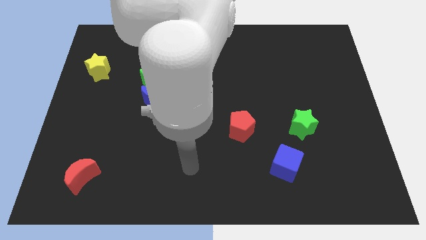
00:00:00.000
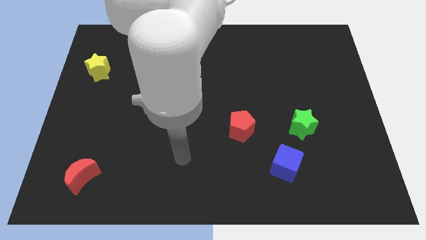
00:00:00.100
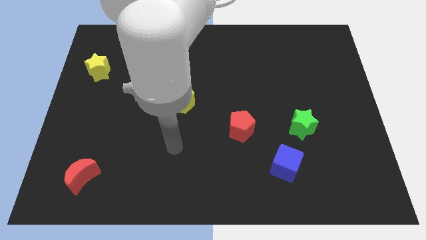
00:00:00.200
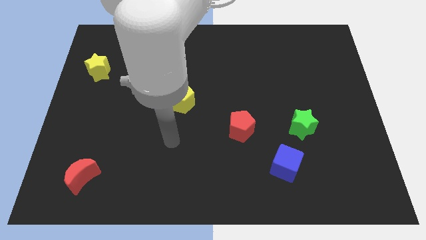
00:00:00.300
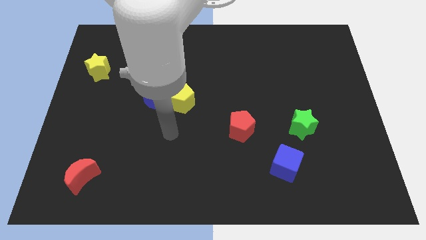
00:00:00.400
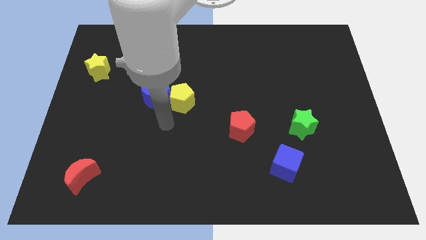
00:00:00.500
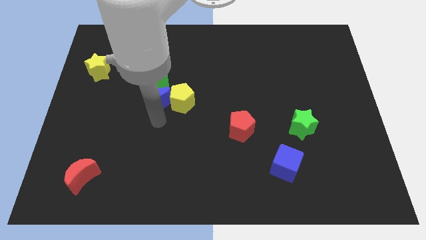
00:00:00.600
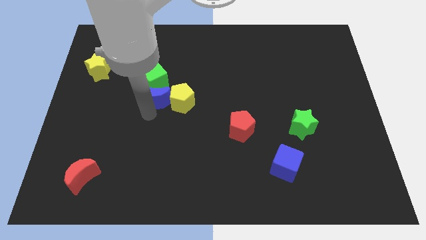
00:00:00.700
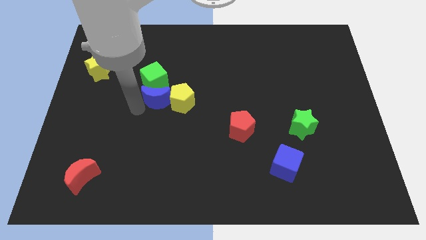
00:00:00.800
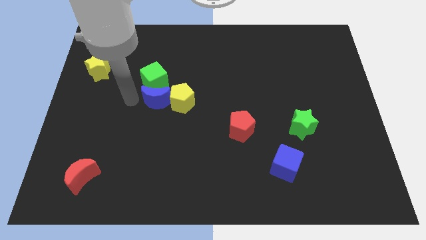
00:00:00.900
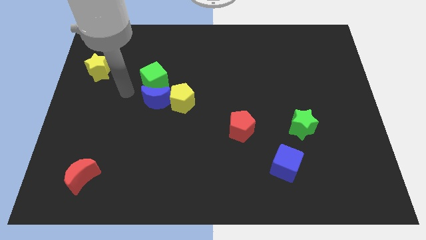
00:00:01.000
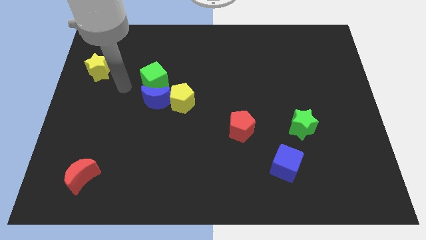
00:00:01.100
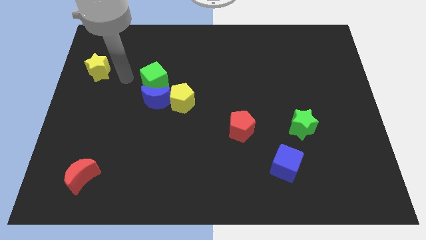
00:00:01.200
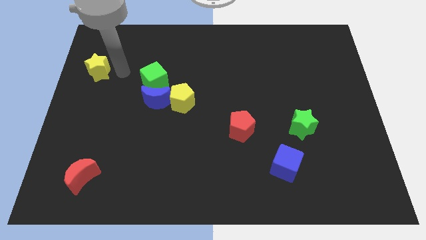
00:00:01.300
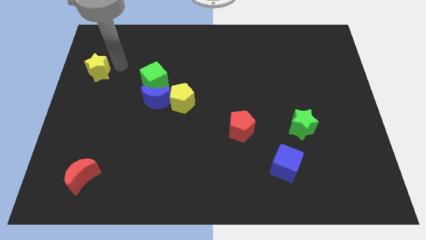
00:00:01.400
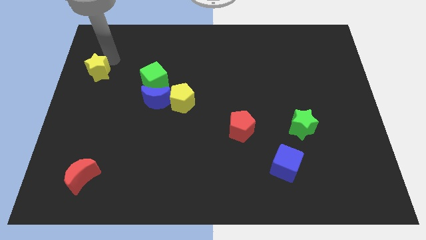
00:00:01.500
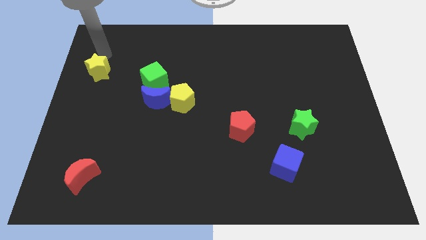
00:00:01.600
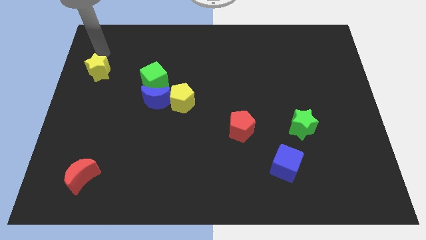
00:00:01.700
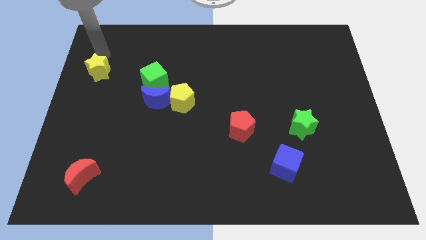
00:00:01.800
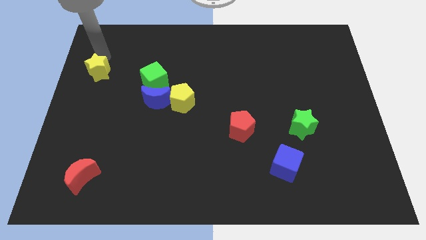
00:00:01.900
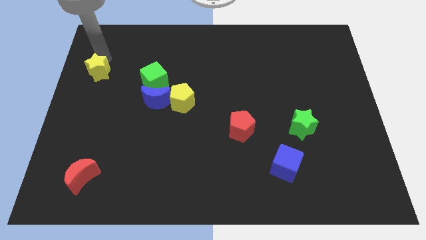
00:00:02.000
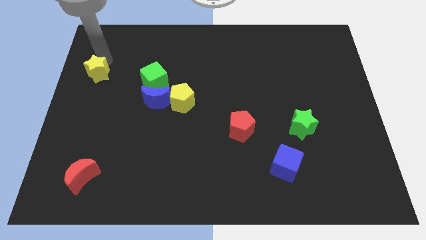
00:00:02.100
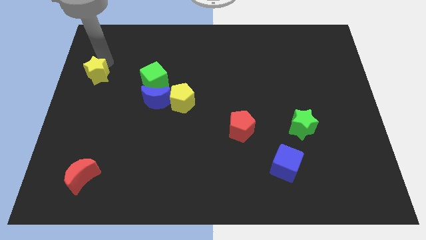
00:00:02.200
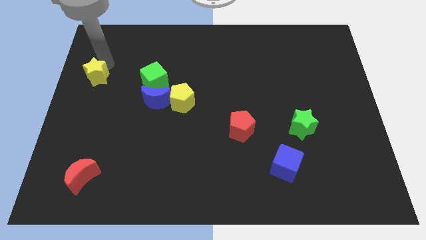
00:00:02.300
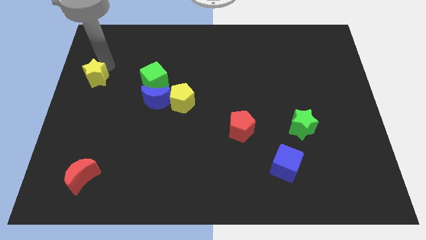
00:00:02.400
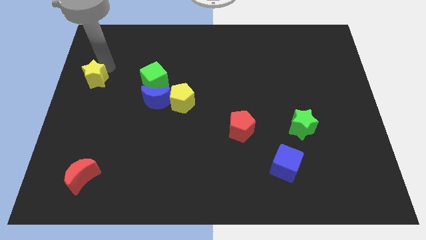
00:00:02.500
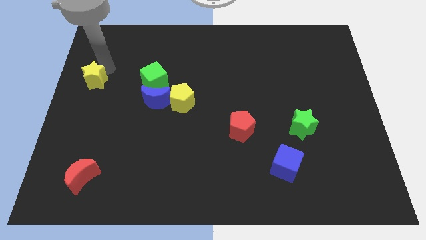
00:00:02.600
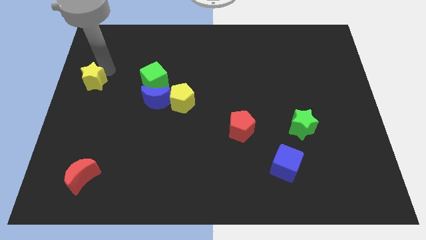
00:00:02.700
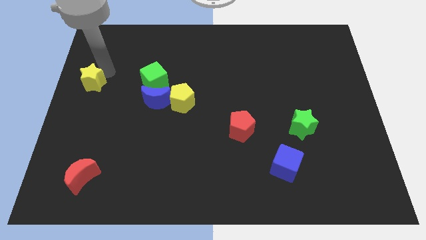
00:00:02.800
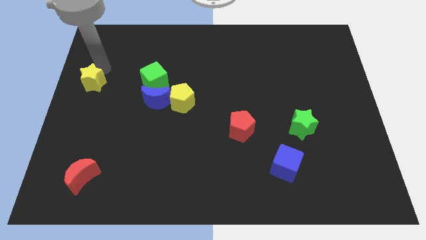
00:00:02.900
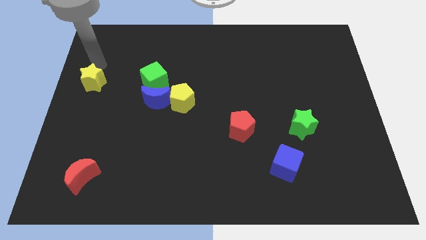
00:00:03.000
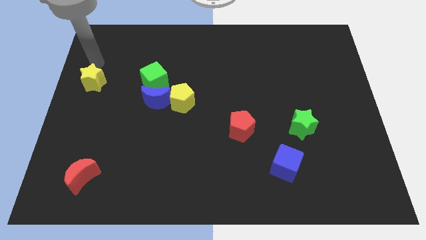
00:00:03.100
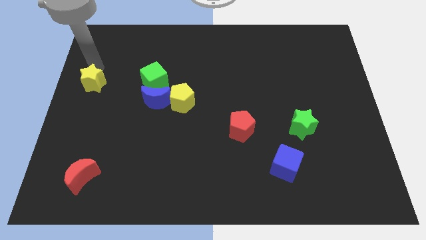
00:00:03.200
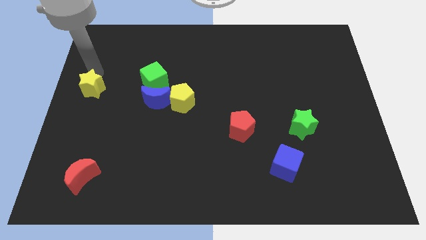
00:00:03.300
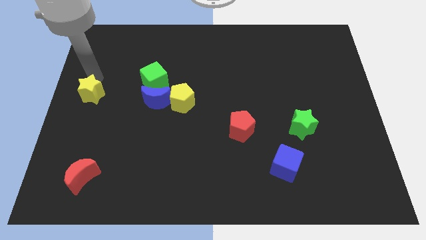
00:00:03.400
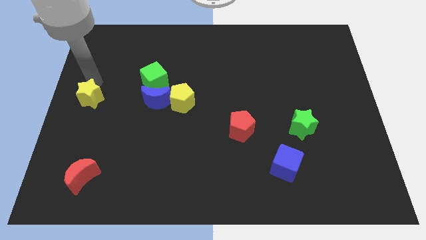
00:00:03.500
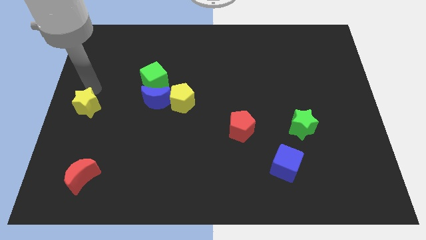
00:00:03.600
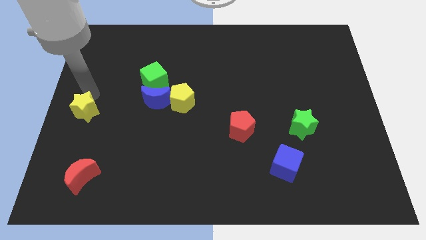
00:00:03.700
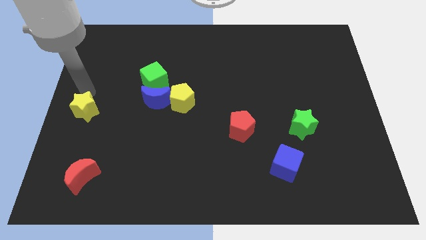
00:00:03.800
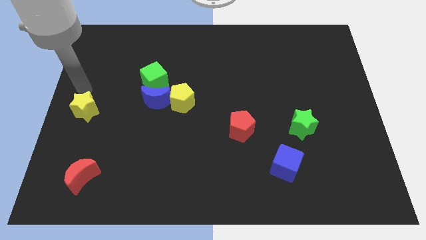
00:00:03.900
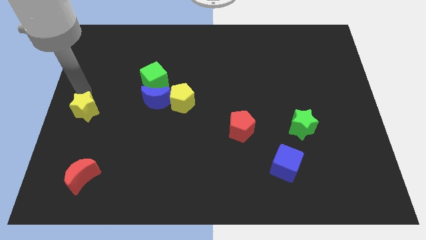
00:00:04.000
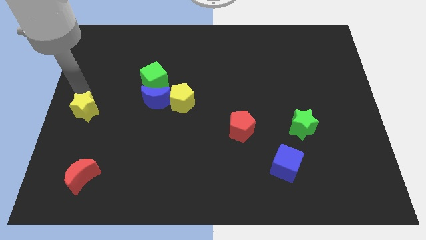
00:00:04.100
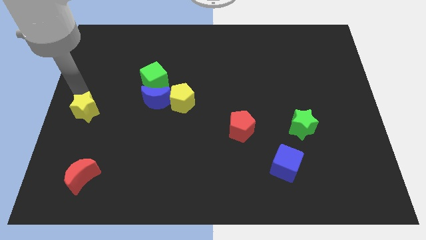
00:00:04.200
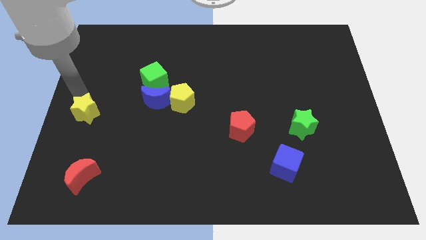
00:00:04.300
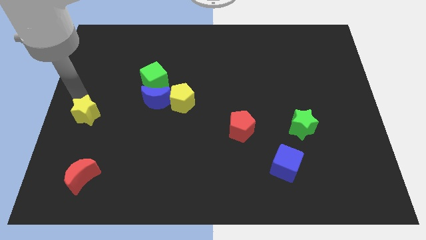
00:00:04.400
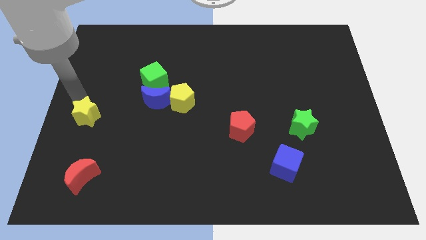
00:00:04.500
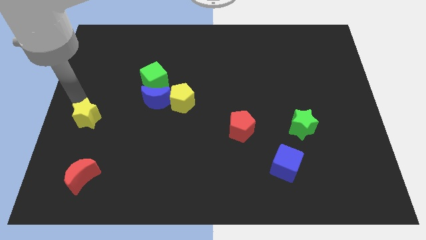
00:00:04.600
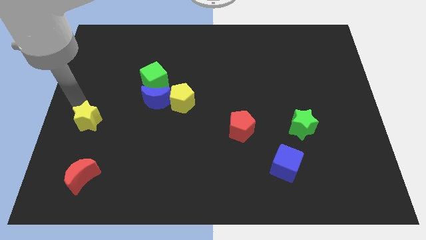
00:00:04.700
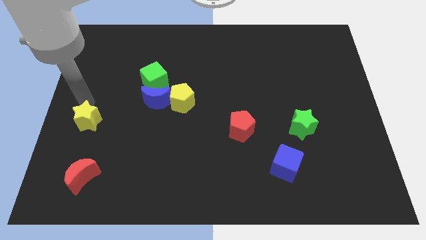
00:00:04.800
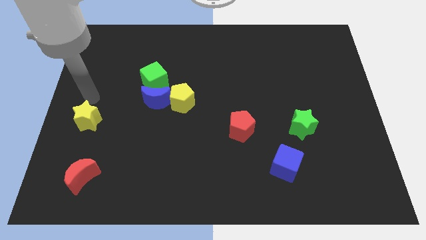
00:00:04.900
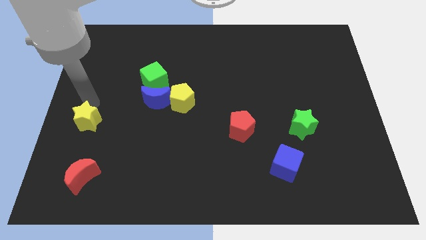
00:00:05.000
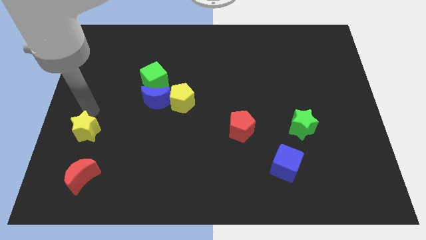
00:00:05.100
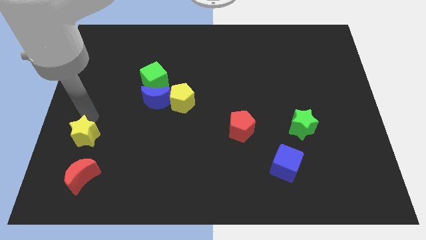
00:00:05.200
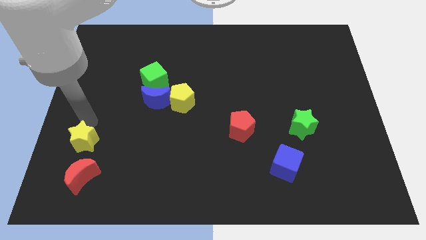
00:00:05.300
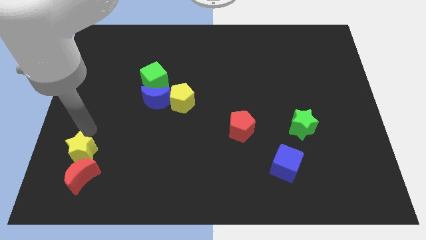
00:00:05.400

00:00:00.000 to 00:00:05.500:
push the yellow star next to the red moon

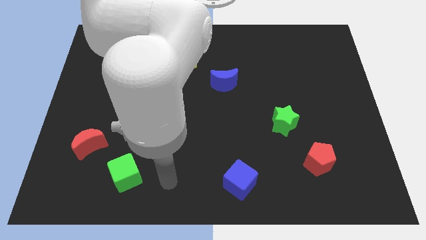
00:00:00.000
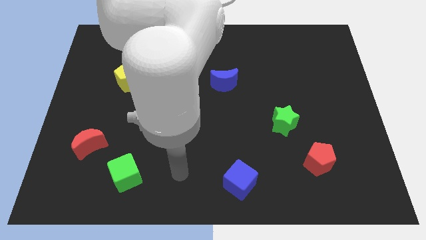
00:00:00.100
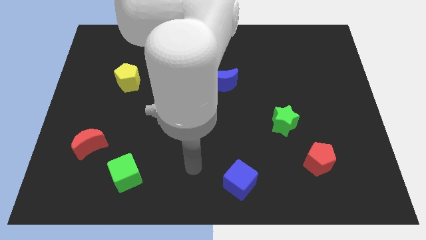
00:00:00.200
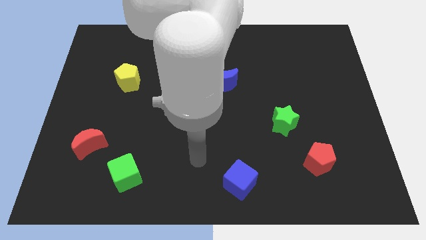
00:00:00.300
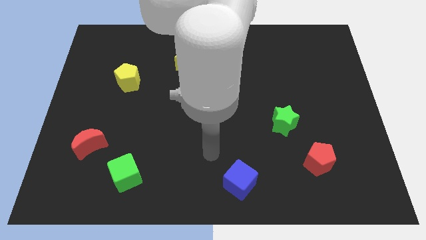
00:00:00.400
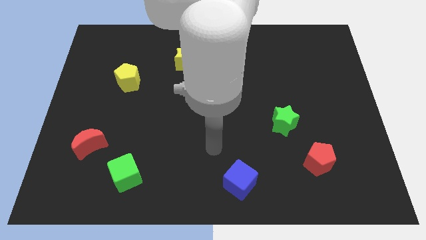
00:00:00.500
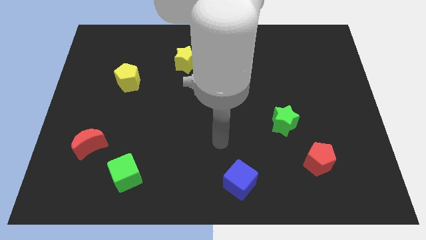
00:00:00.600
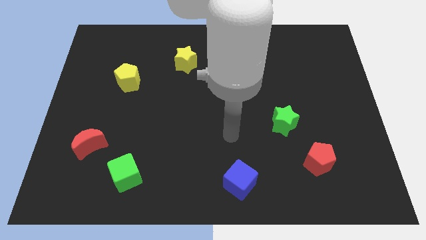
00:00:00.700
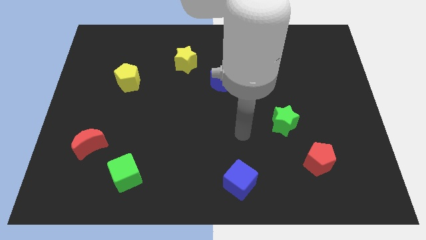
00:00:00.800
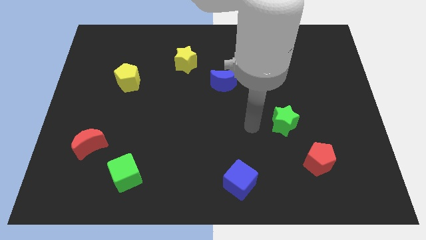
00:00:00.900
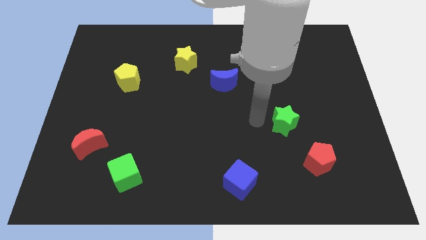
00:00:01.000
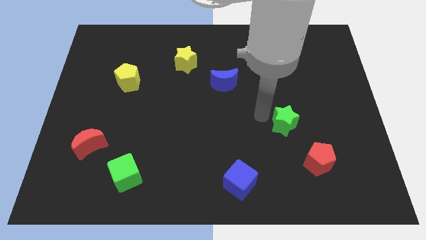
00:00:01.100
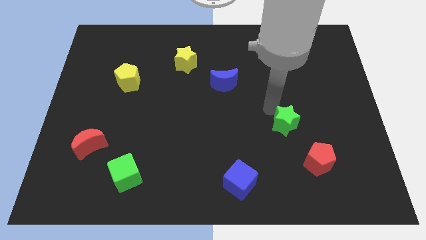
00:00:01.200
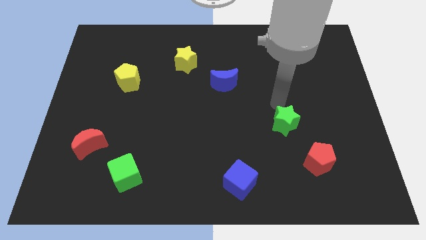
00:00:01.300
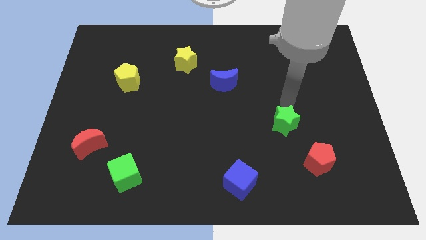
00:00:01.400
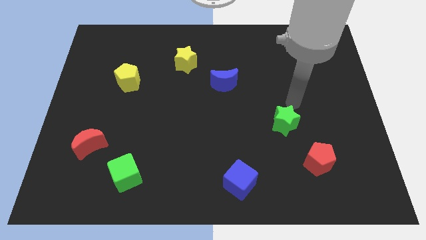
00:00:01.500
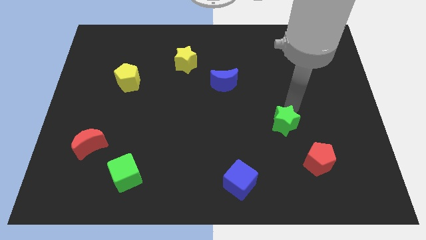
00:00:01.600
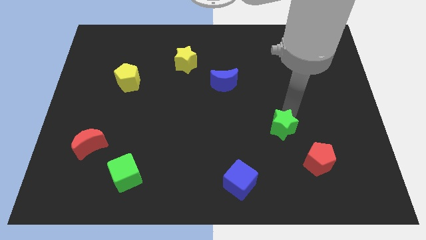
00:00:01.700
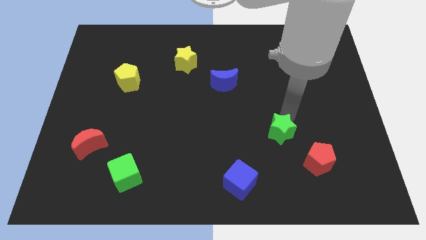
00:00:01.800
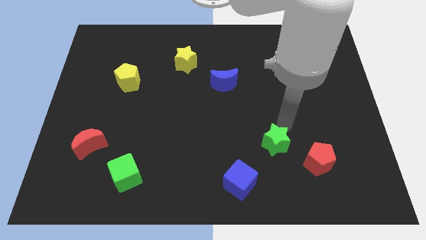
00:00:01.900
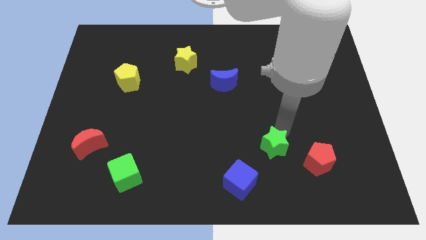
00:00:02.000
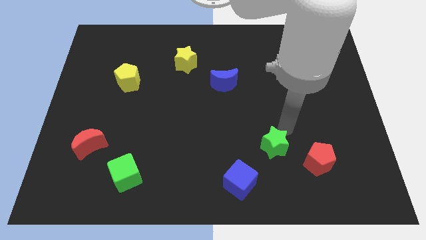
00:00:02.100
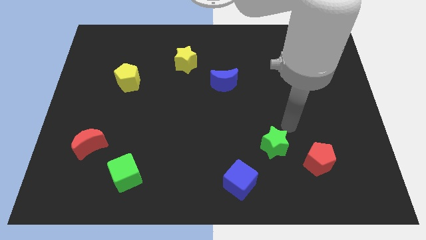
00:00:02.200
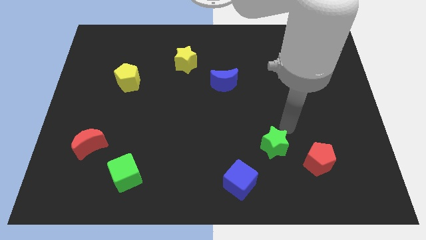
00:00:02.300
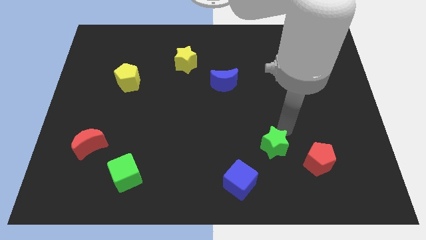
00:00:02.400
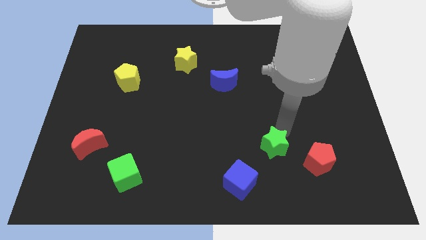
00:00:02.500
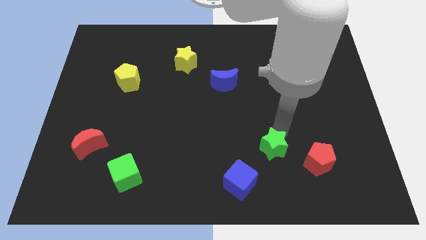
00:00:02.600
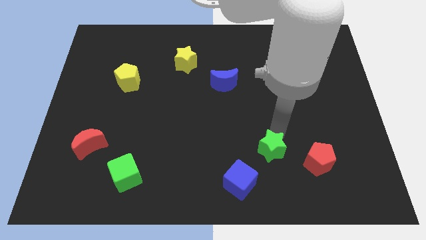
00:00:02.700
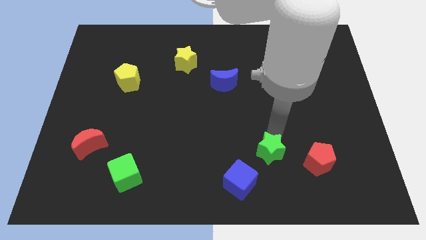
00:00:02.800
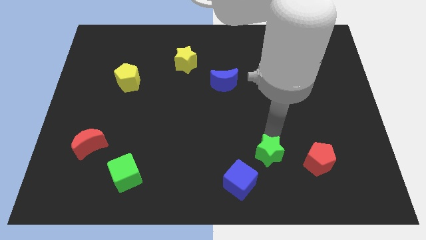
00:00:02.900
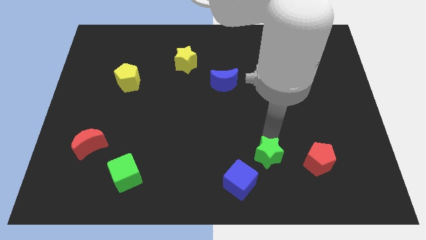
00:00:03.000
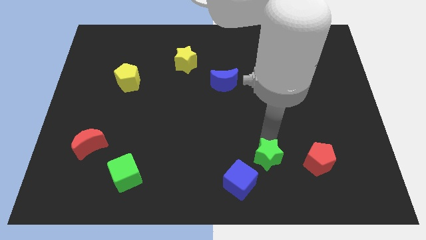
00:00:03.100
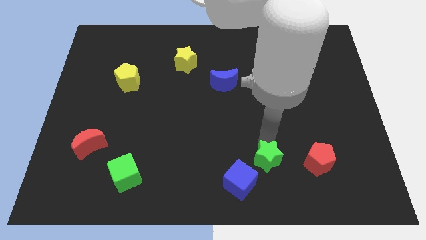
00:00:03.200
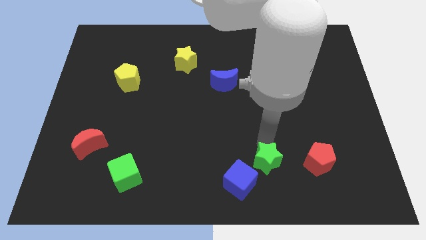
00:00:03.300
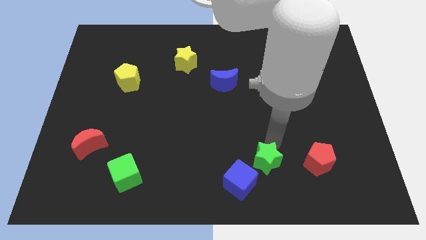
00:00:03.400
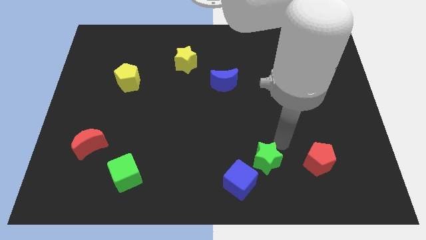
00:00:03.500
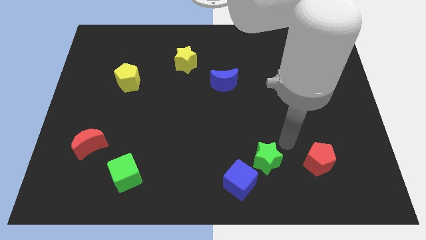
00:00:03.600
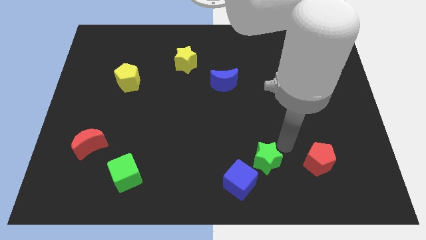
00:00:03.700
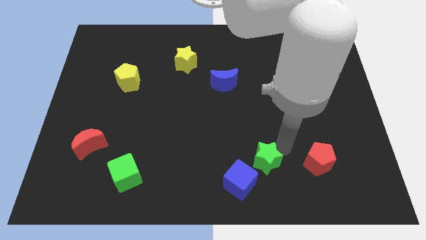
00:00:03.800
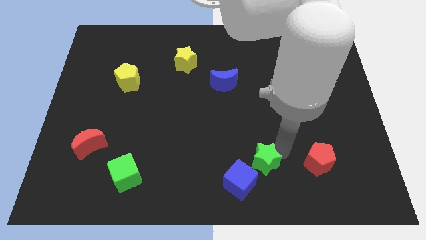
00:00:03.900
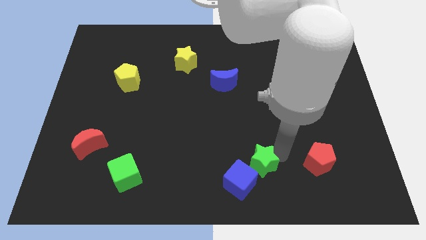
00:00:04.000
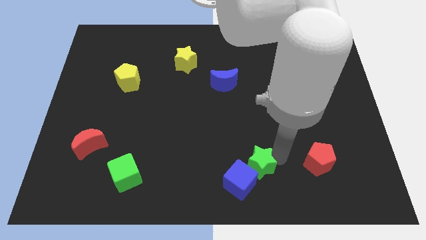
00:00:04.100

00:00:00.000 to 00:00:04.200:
put the green star close to the blue cube
